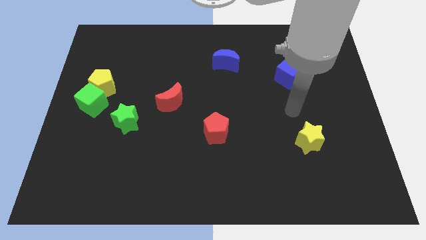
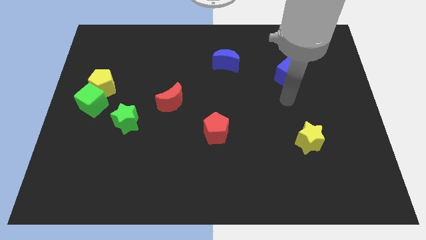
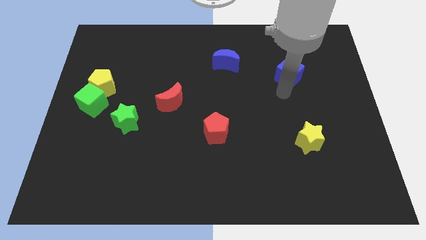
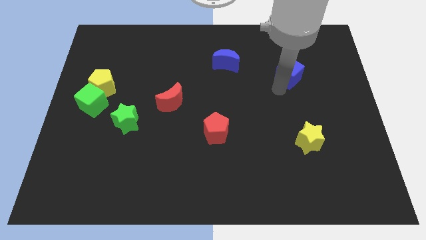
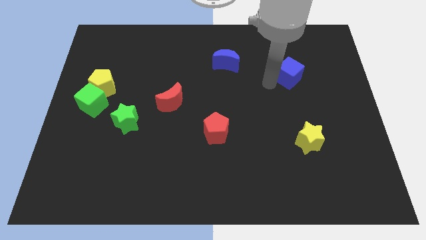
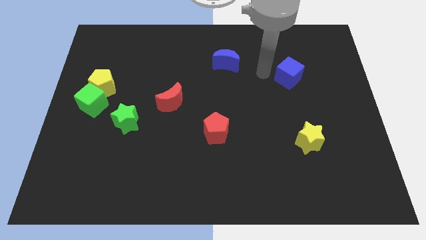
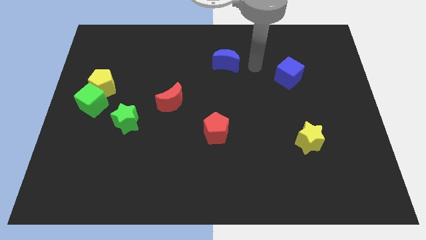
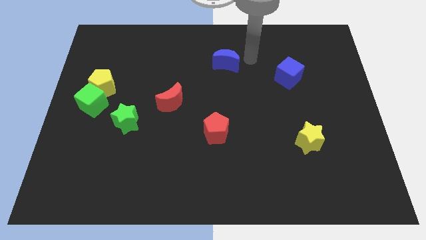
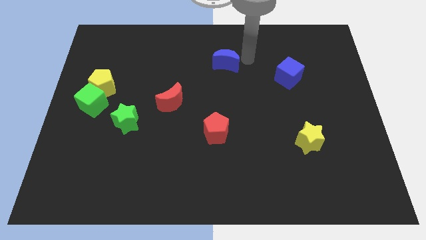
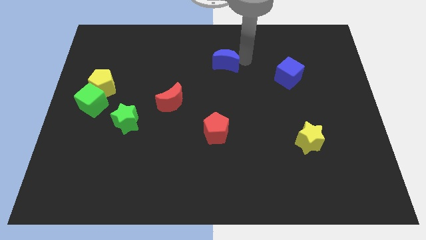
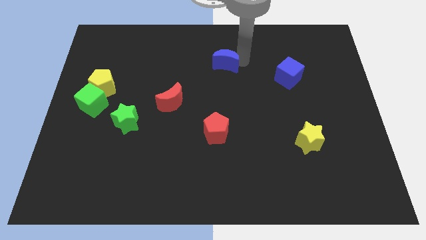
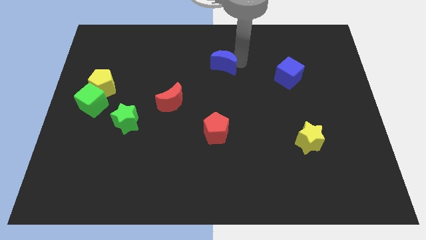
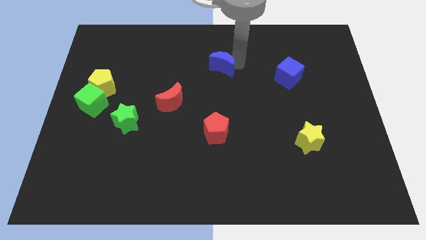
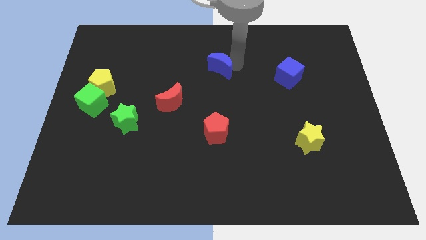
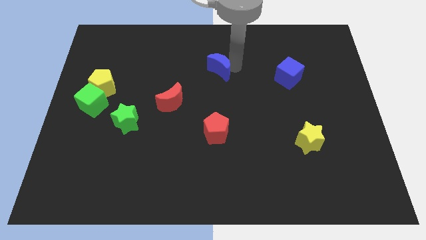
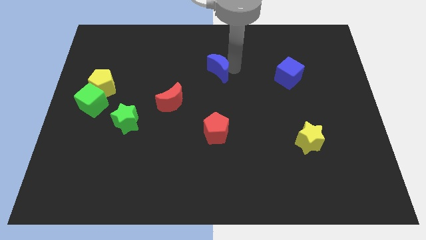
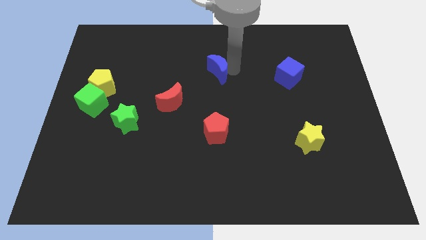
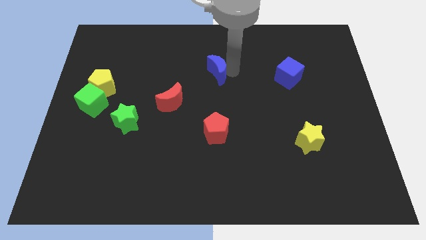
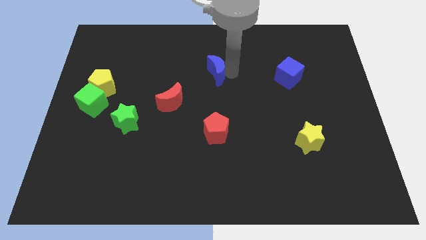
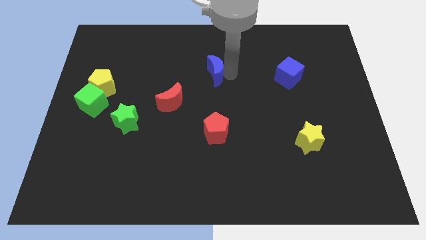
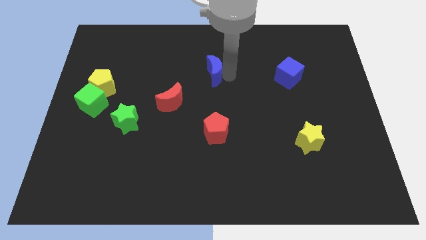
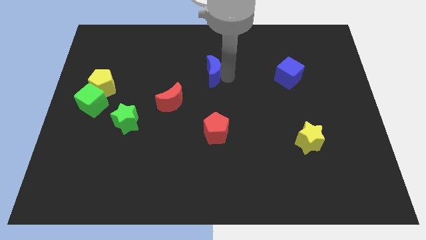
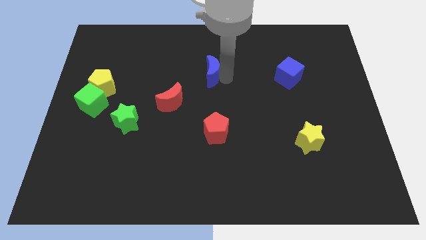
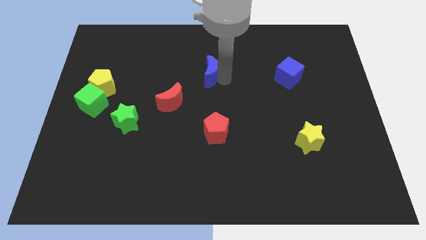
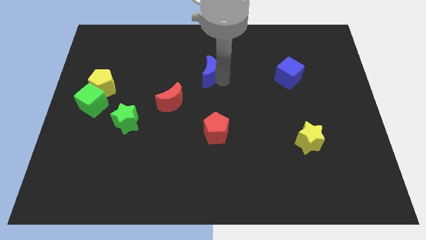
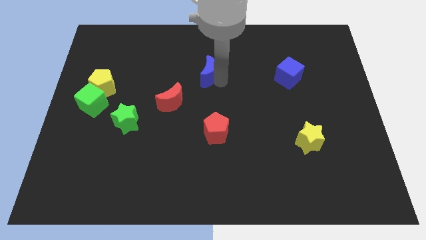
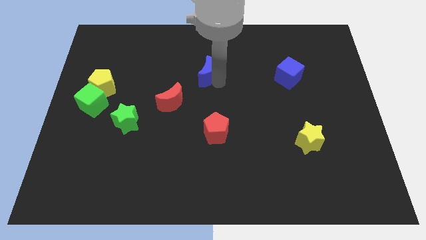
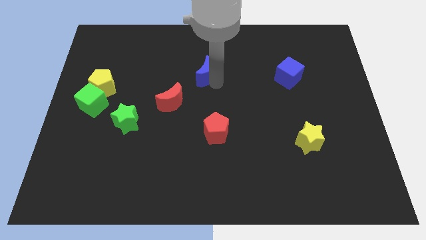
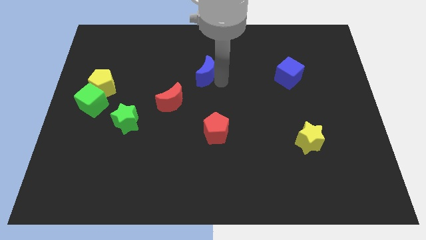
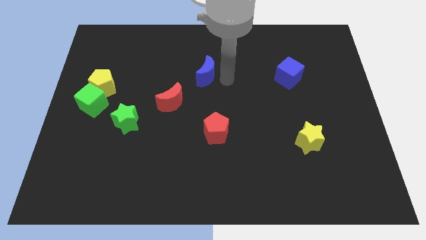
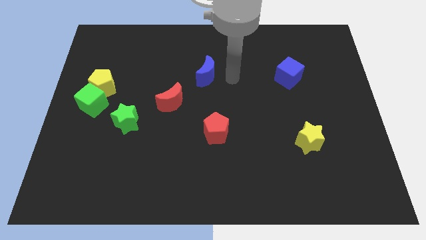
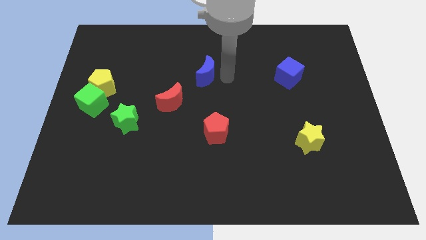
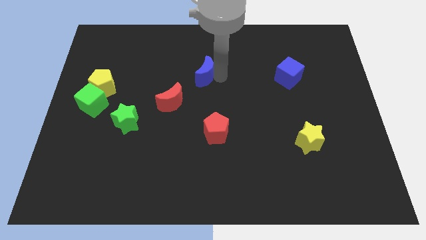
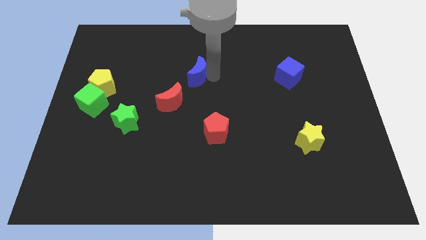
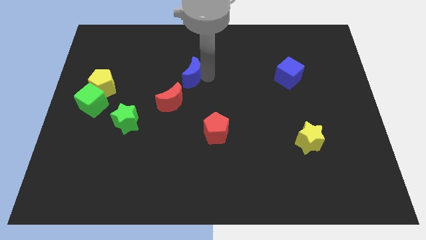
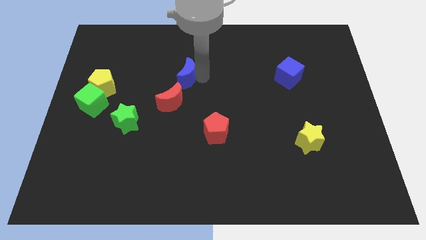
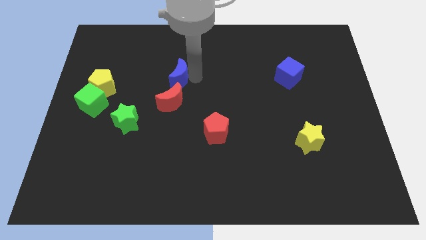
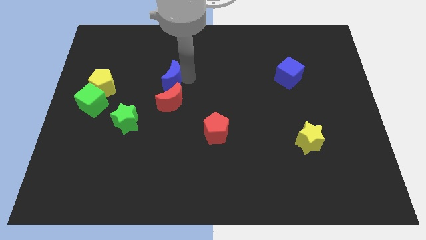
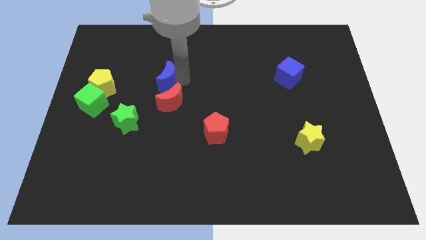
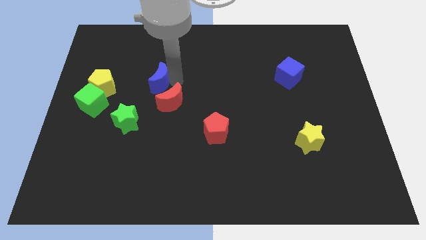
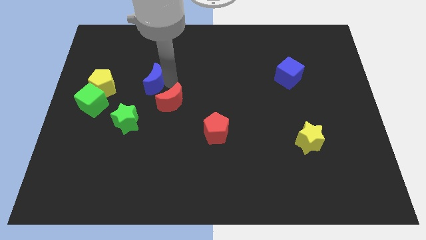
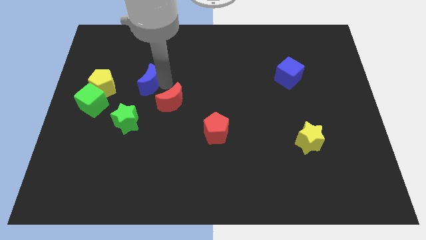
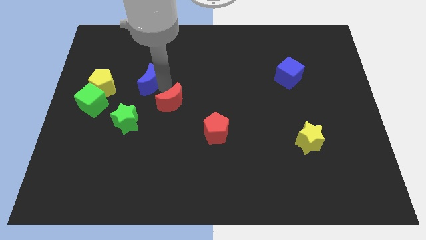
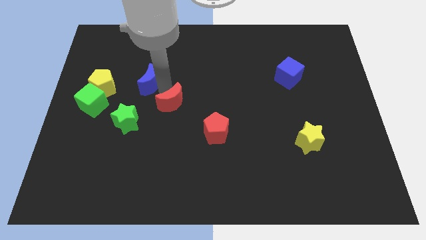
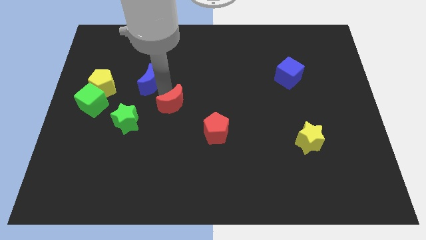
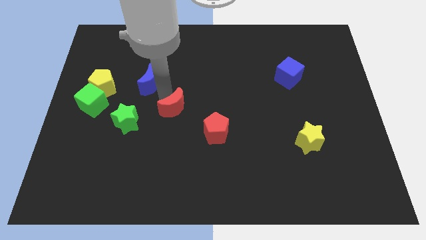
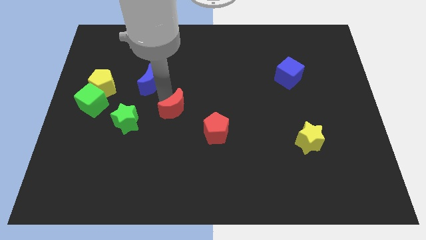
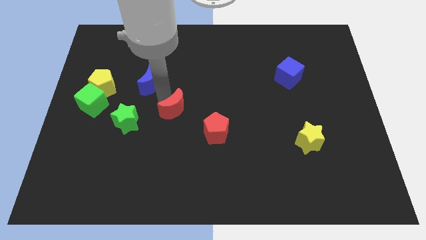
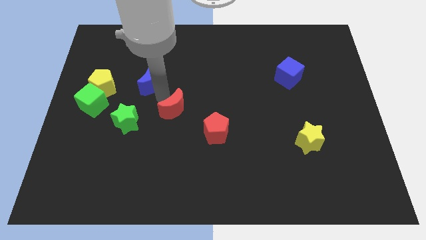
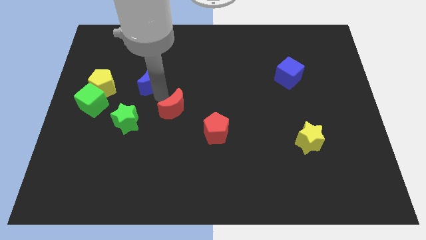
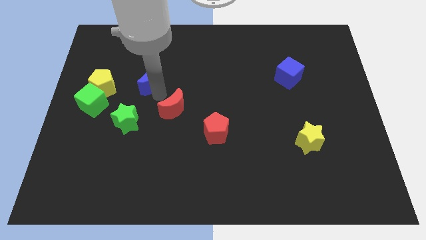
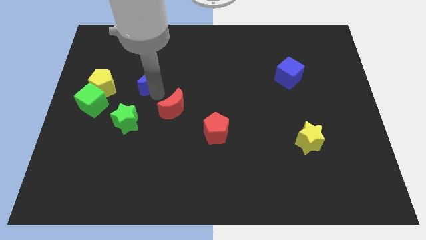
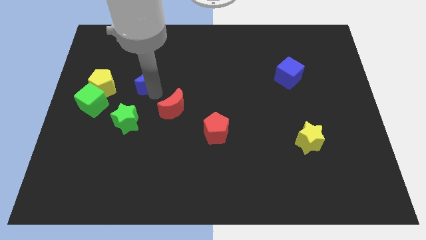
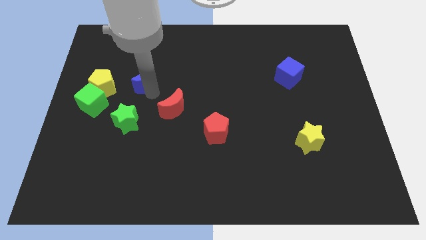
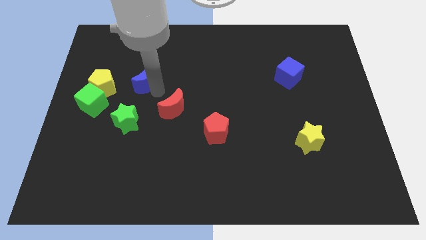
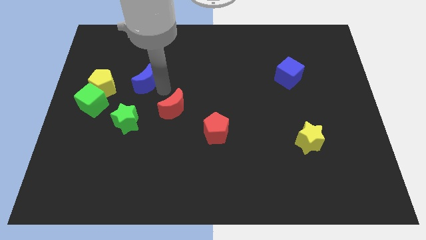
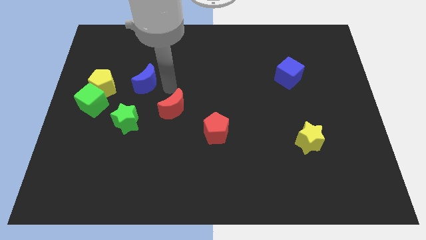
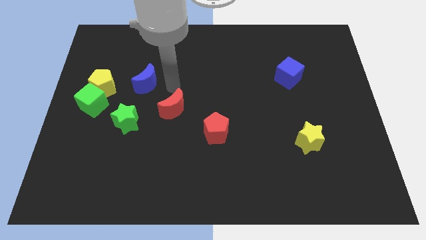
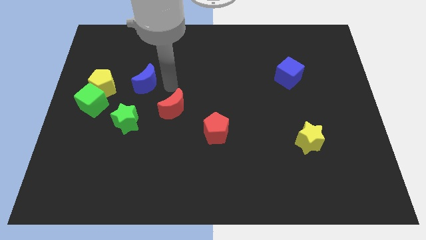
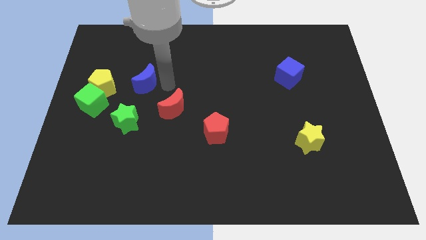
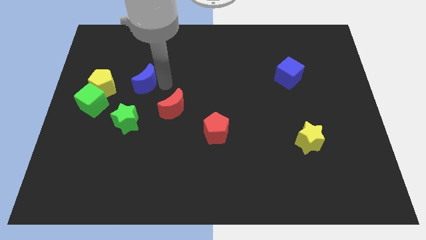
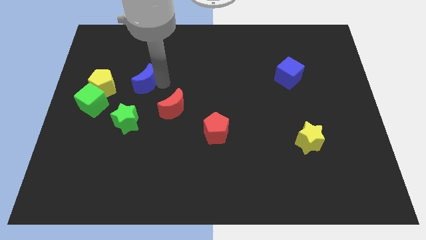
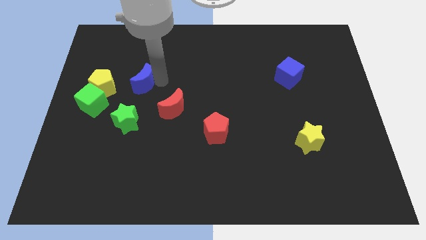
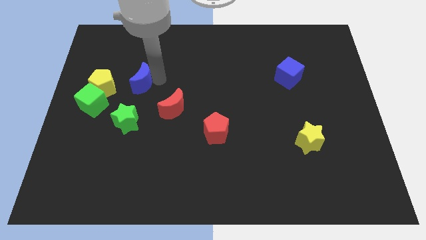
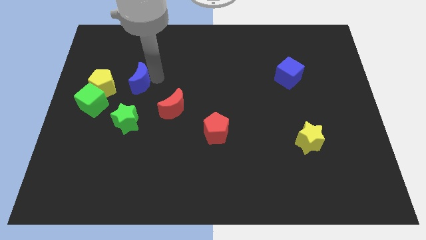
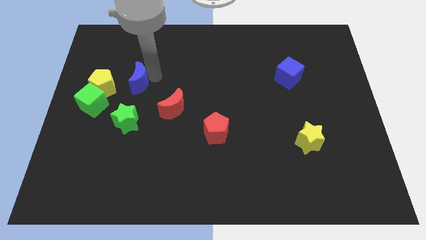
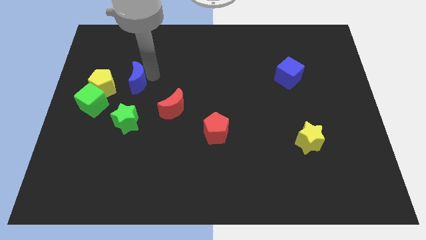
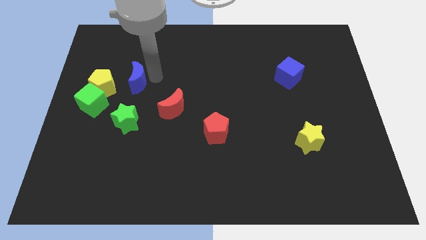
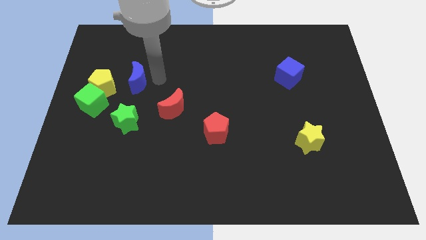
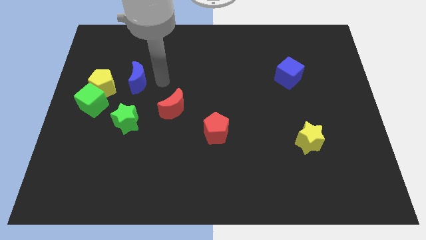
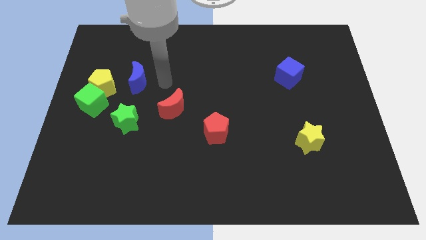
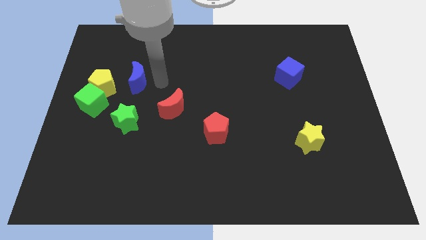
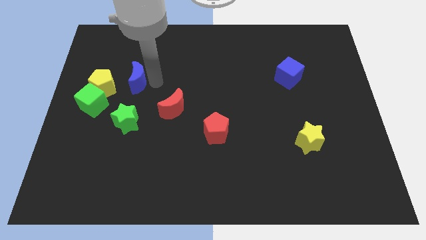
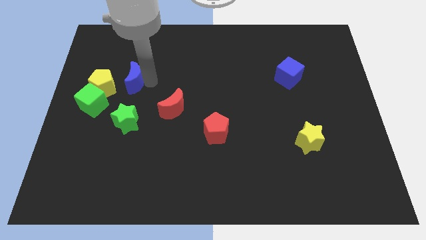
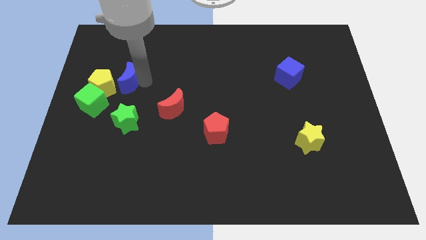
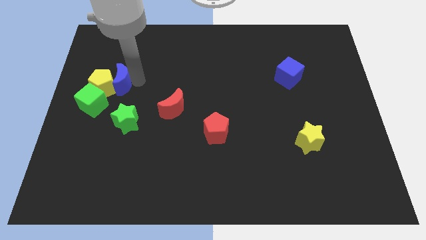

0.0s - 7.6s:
slide the blue moon to the yellow pentagon
